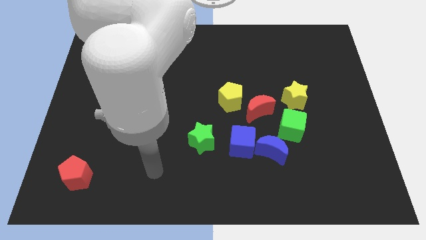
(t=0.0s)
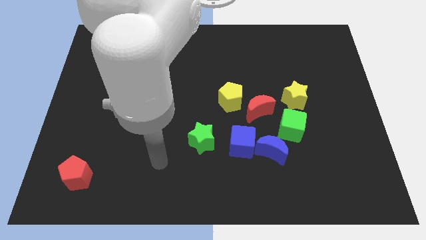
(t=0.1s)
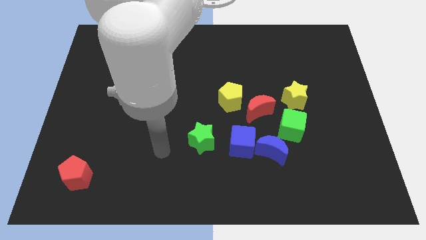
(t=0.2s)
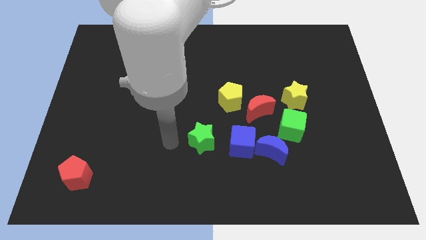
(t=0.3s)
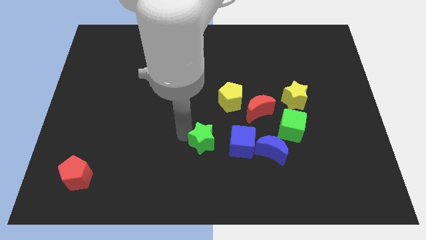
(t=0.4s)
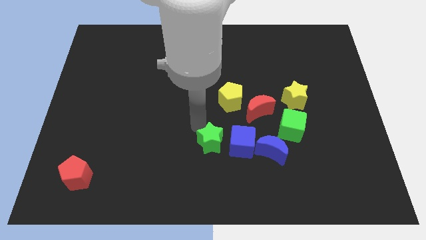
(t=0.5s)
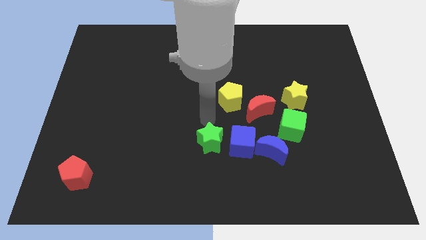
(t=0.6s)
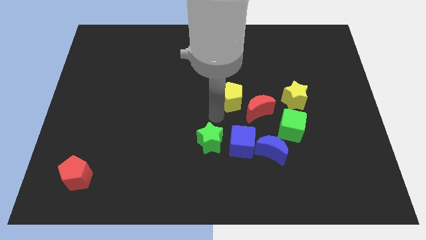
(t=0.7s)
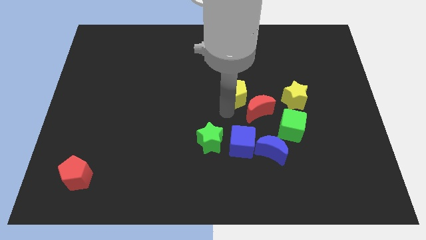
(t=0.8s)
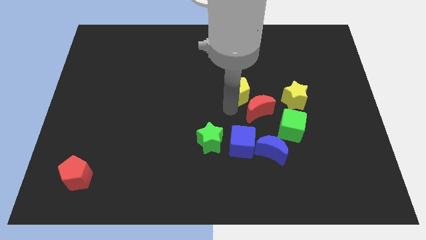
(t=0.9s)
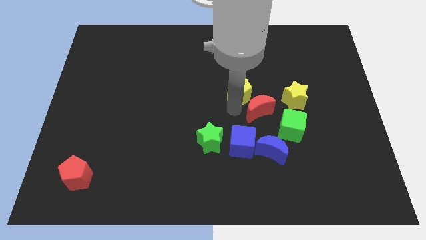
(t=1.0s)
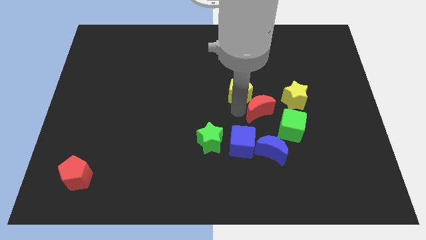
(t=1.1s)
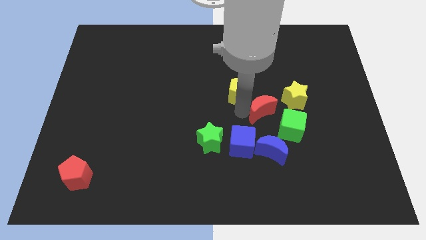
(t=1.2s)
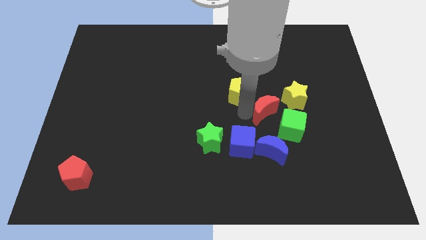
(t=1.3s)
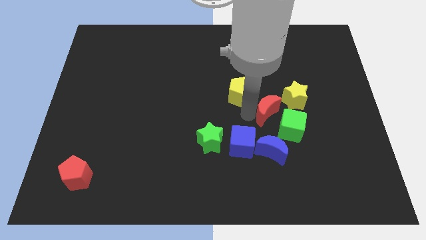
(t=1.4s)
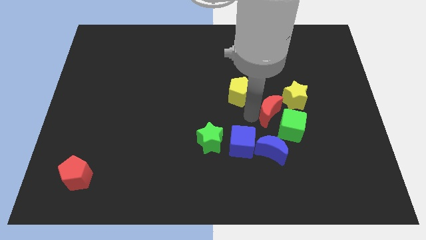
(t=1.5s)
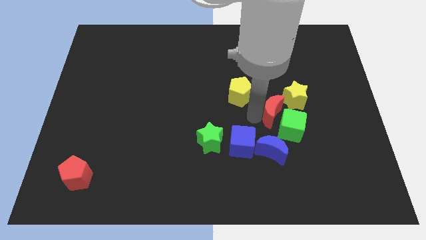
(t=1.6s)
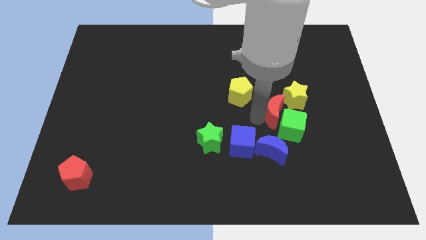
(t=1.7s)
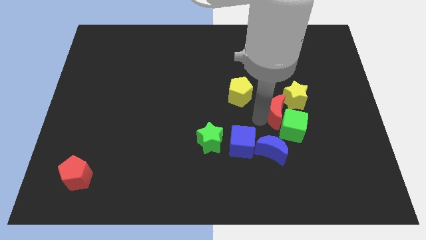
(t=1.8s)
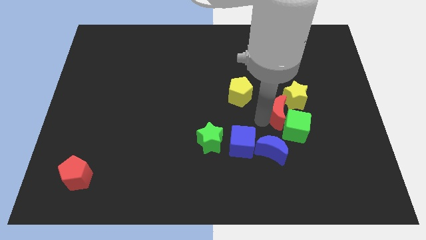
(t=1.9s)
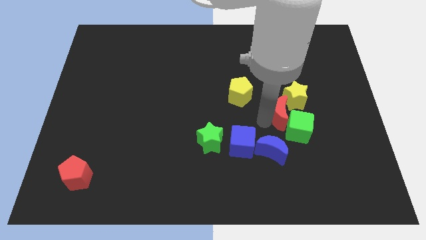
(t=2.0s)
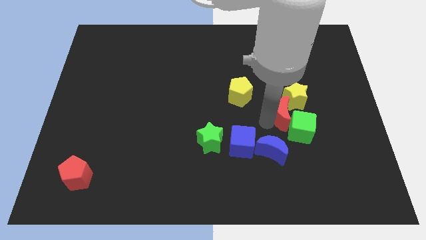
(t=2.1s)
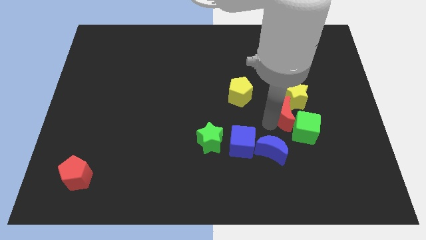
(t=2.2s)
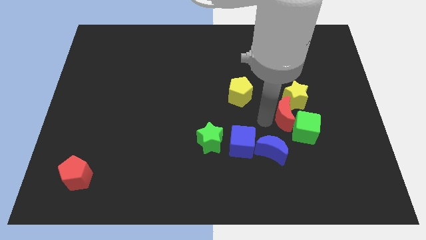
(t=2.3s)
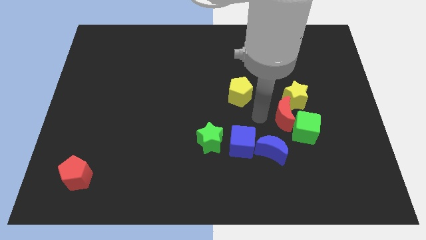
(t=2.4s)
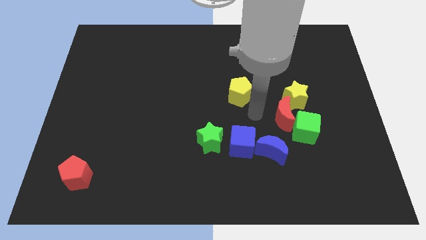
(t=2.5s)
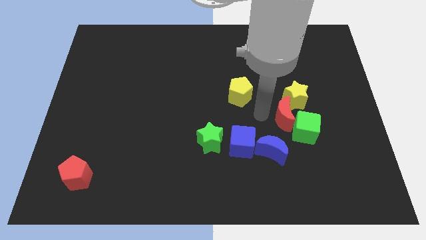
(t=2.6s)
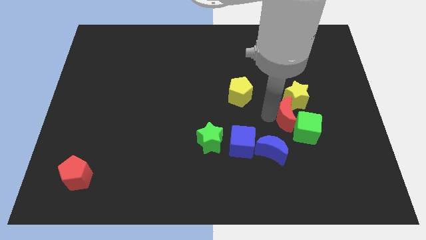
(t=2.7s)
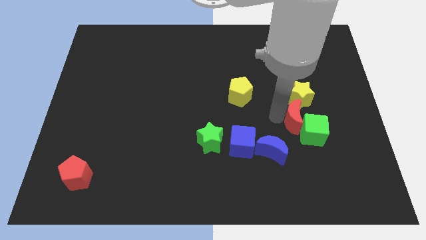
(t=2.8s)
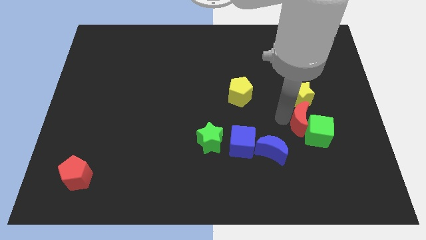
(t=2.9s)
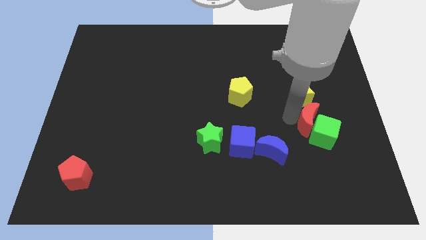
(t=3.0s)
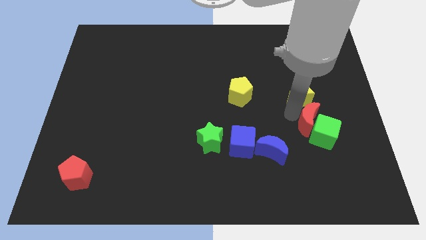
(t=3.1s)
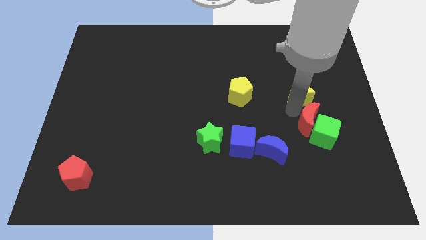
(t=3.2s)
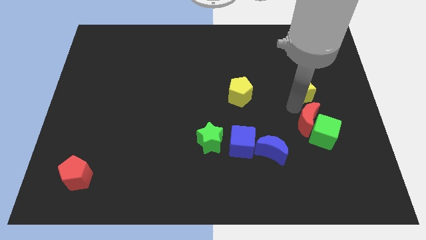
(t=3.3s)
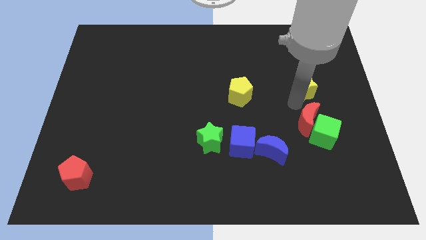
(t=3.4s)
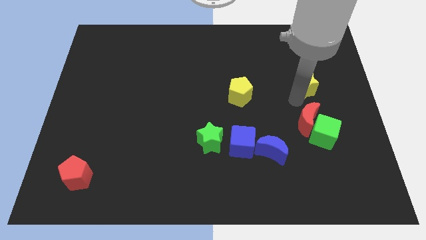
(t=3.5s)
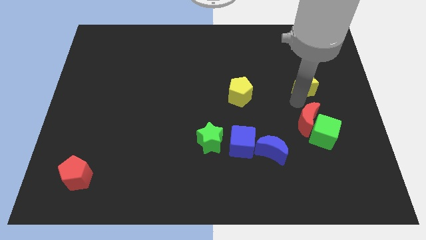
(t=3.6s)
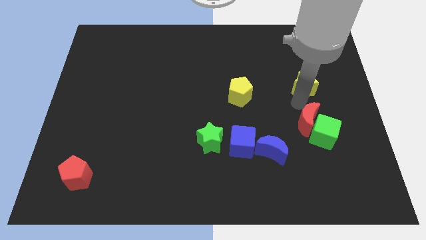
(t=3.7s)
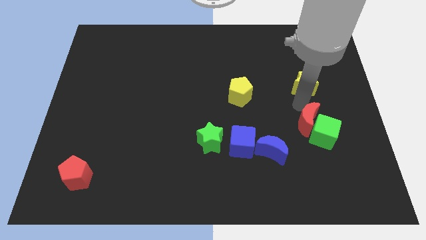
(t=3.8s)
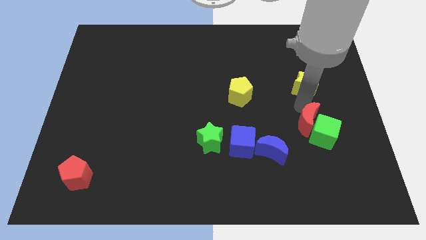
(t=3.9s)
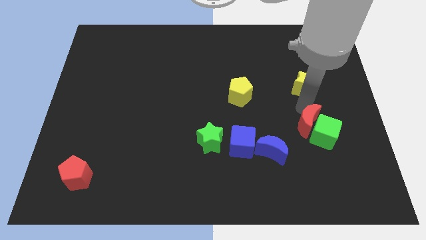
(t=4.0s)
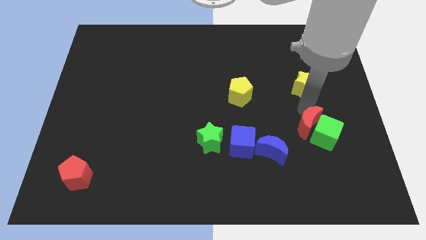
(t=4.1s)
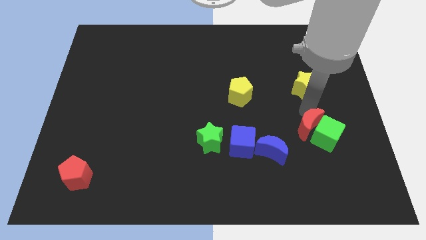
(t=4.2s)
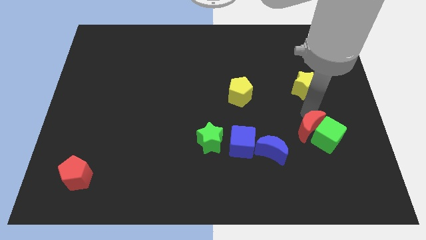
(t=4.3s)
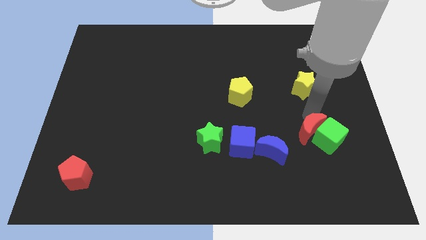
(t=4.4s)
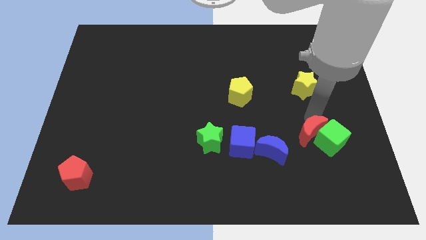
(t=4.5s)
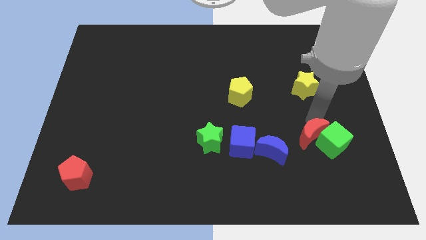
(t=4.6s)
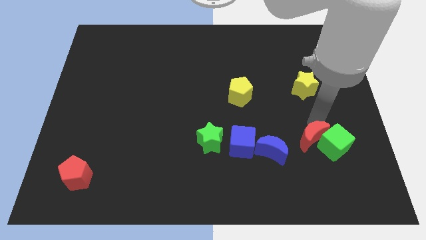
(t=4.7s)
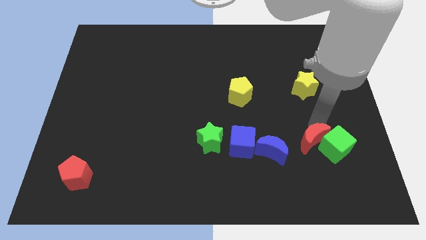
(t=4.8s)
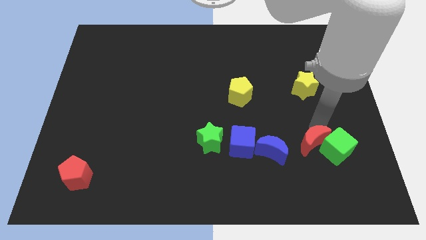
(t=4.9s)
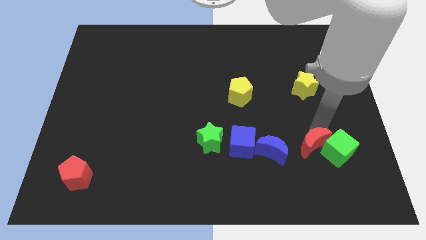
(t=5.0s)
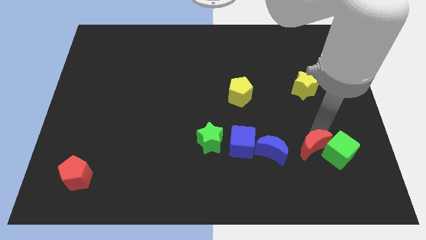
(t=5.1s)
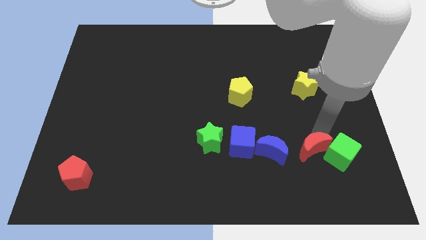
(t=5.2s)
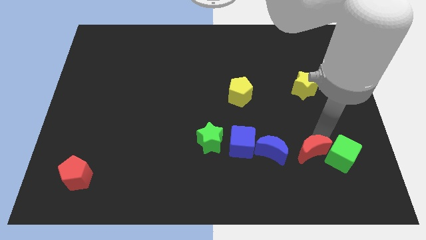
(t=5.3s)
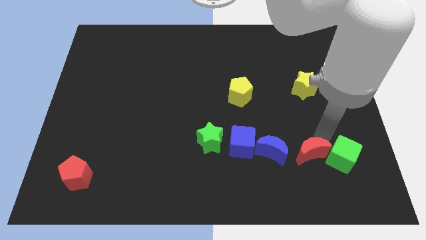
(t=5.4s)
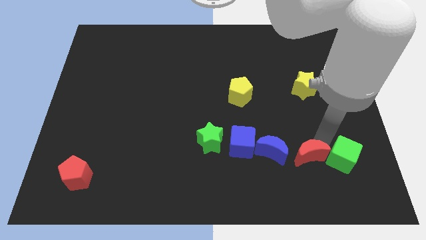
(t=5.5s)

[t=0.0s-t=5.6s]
move the red moon to the bottom right of the blue moon

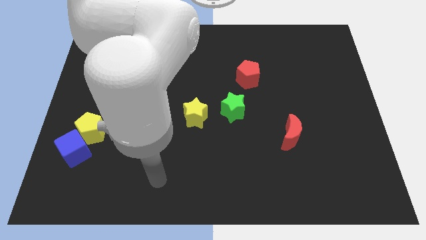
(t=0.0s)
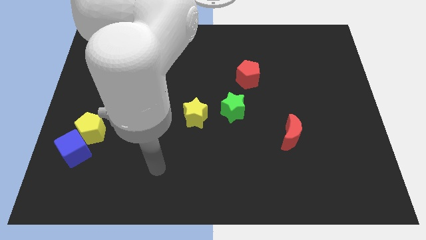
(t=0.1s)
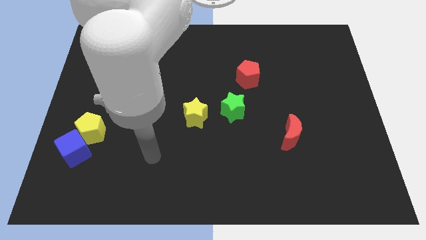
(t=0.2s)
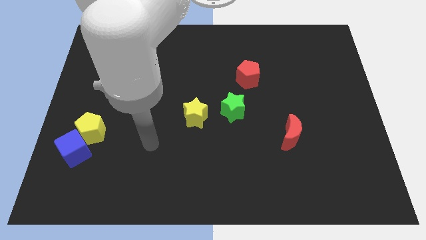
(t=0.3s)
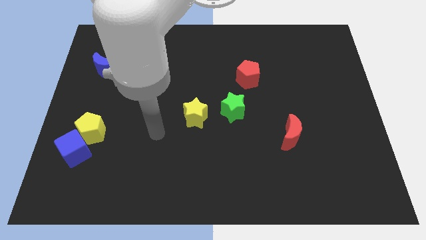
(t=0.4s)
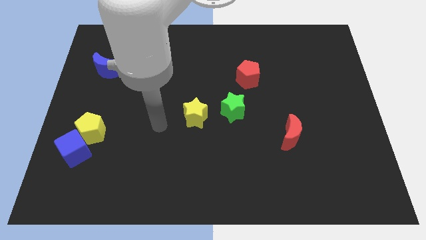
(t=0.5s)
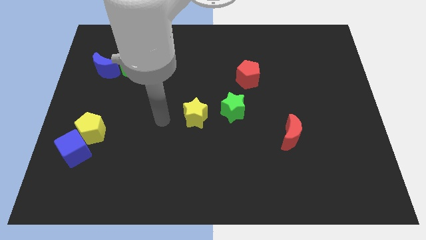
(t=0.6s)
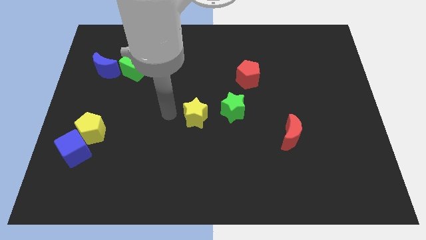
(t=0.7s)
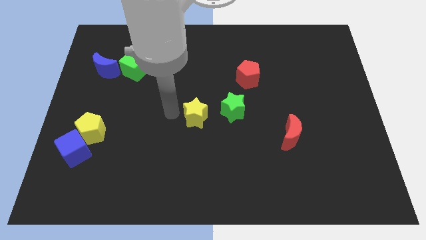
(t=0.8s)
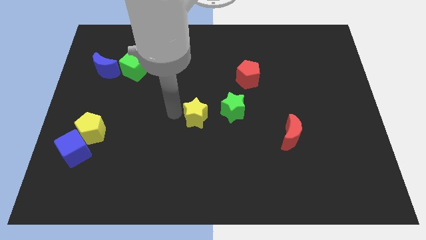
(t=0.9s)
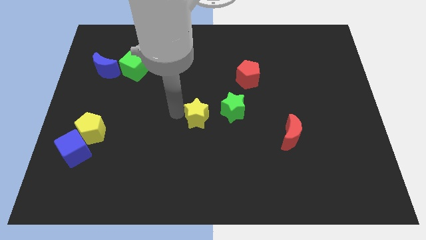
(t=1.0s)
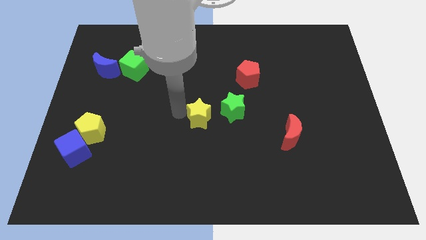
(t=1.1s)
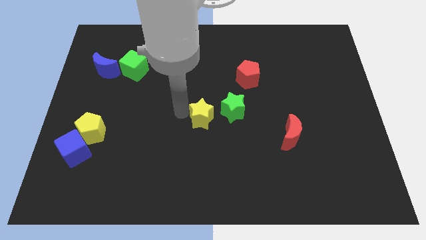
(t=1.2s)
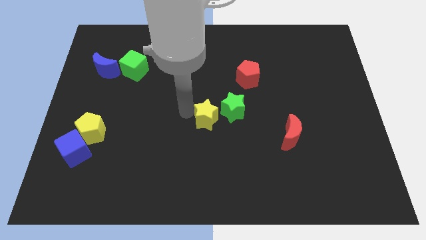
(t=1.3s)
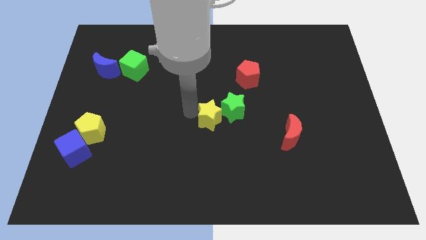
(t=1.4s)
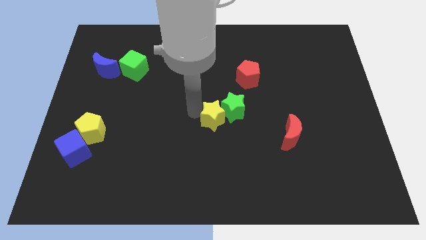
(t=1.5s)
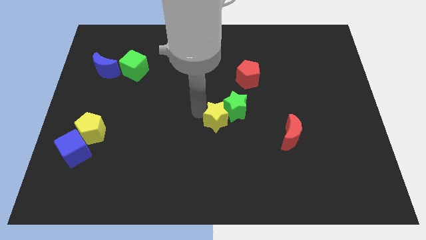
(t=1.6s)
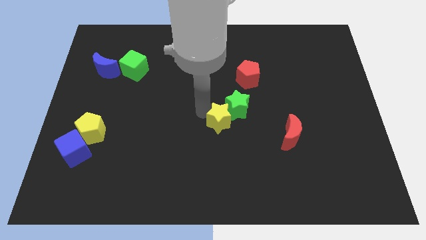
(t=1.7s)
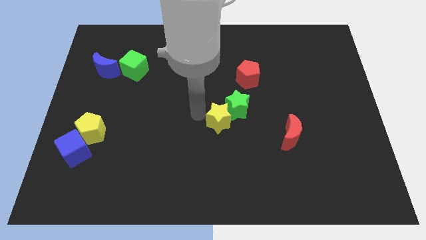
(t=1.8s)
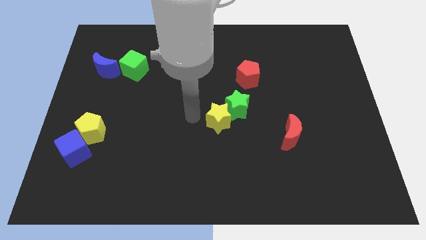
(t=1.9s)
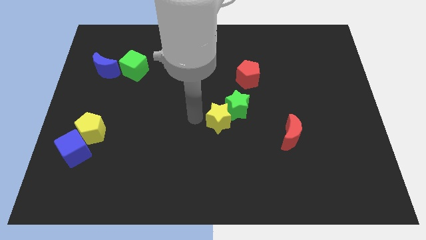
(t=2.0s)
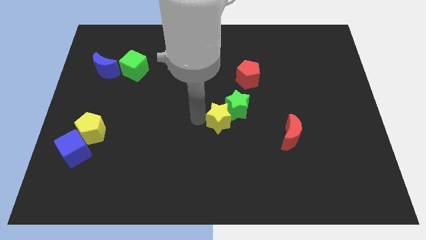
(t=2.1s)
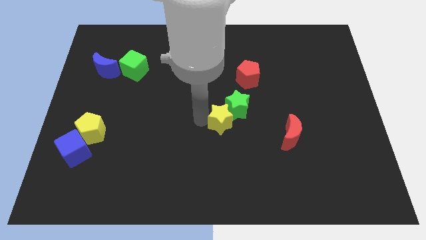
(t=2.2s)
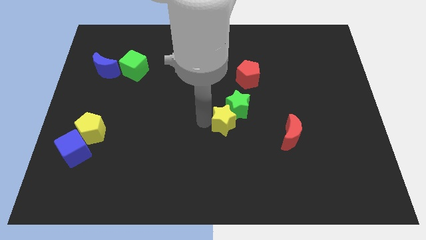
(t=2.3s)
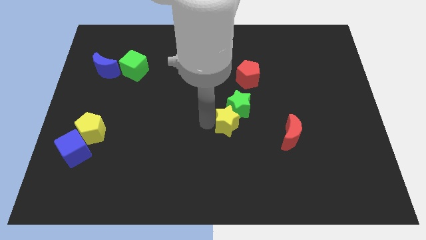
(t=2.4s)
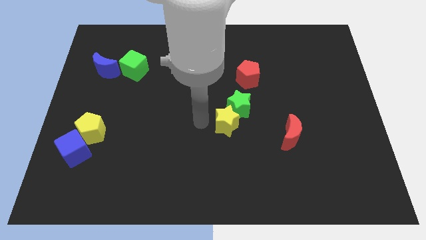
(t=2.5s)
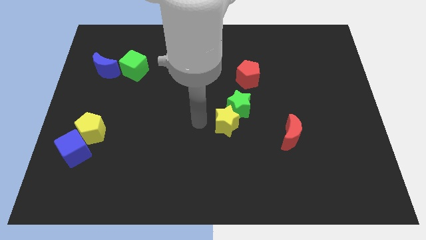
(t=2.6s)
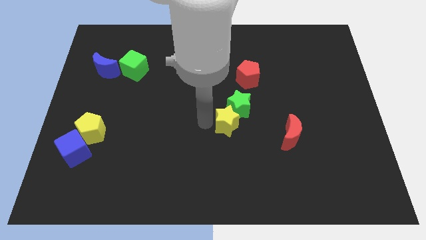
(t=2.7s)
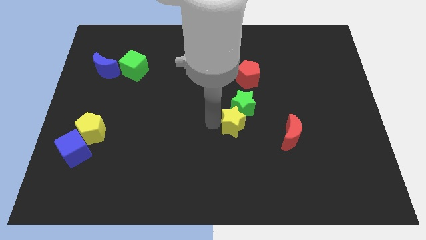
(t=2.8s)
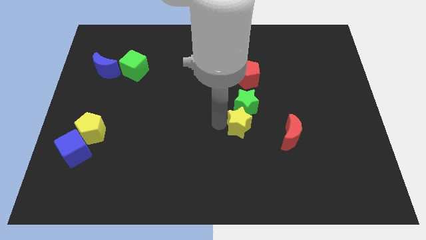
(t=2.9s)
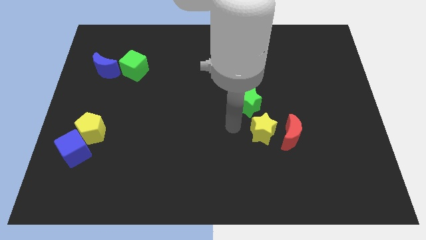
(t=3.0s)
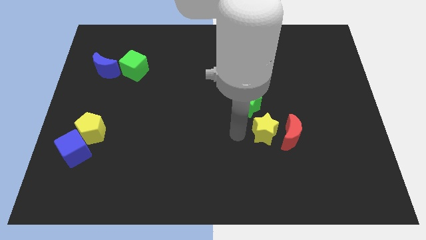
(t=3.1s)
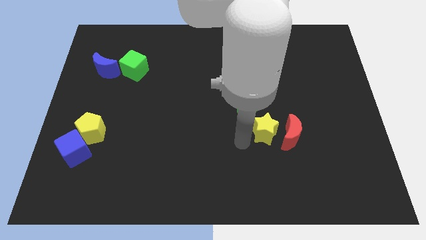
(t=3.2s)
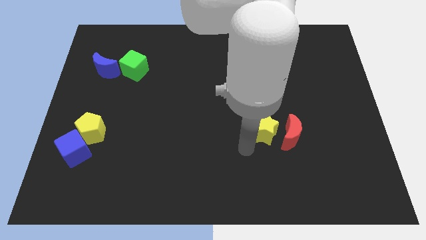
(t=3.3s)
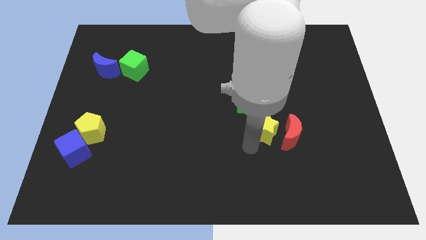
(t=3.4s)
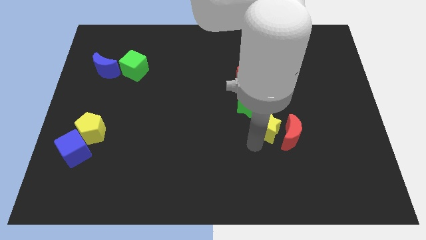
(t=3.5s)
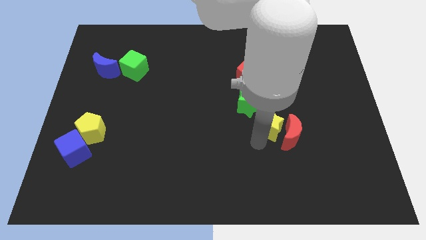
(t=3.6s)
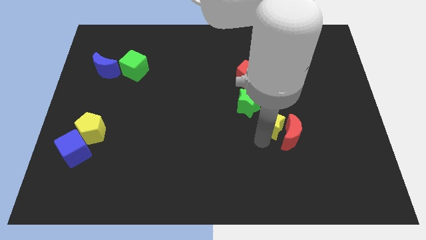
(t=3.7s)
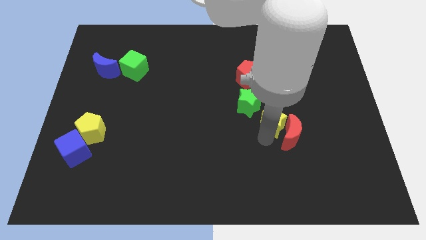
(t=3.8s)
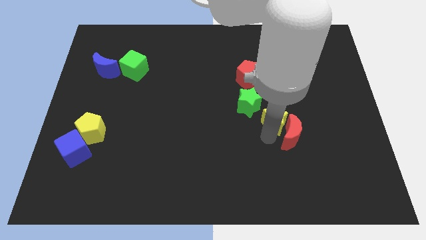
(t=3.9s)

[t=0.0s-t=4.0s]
slide the yellow star to the right of the green star
